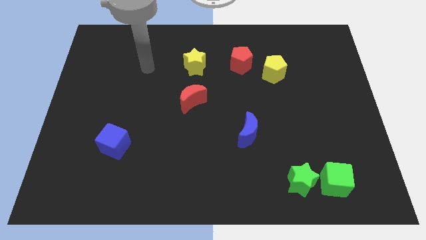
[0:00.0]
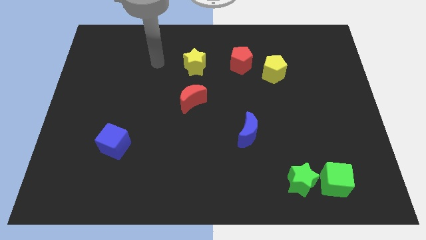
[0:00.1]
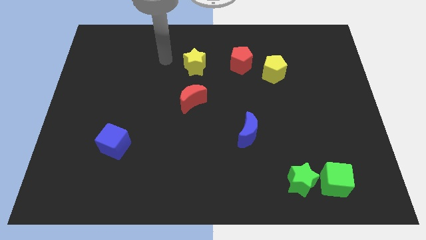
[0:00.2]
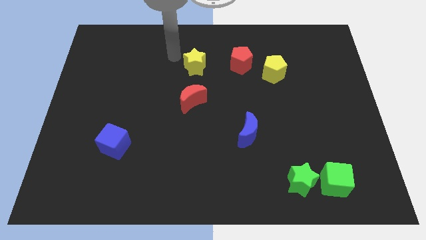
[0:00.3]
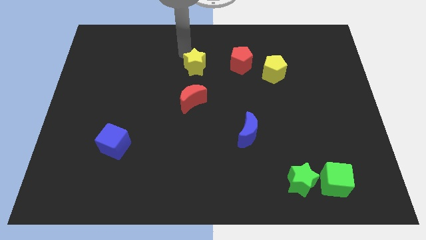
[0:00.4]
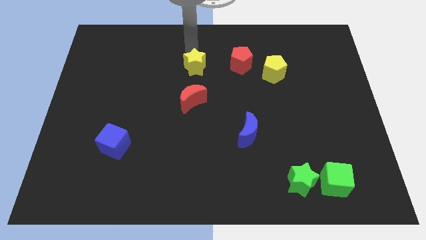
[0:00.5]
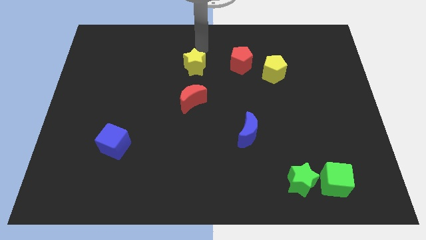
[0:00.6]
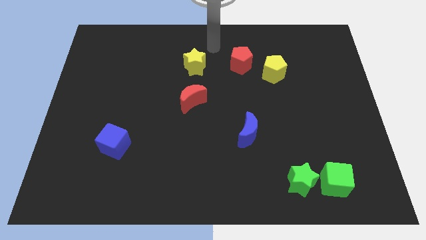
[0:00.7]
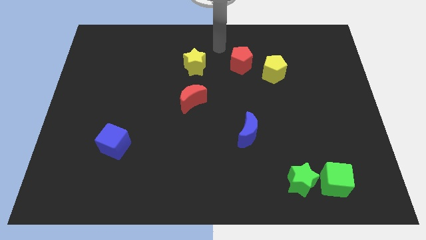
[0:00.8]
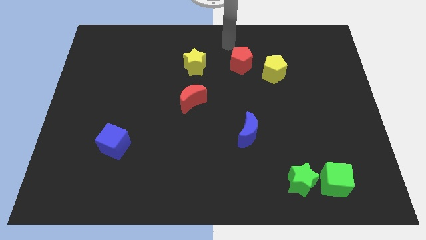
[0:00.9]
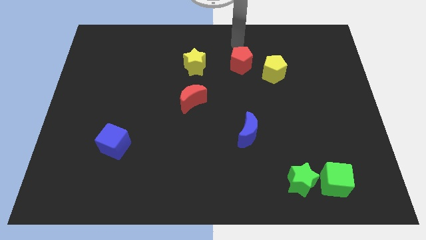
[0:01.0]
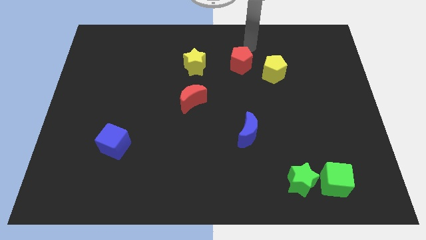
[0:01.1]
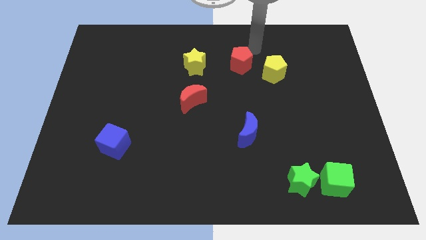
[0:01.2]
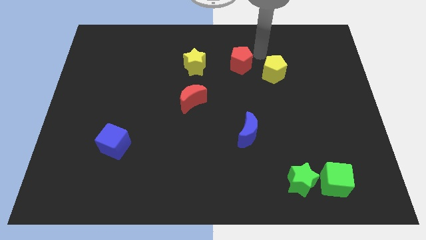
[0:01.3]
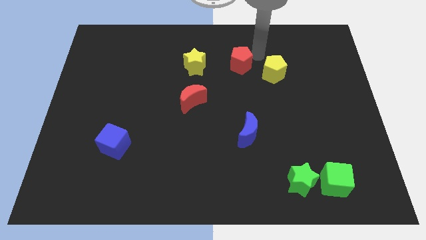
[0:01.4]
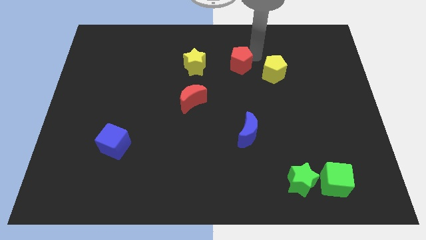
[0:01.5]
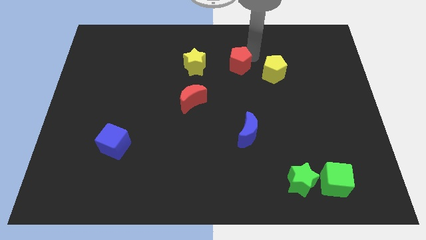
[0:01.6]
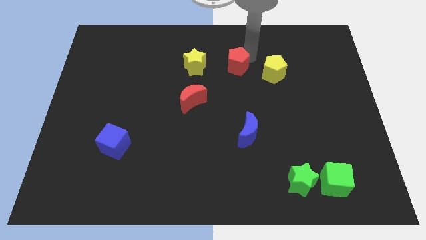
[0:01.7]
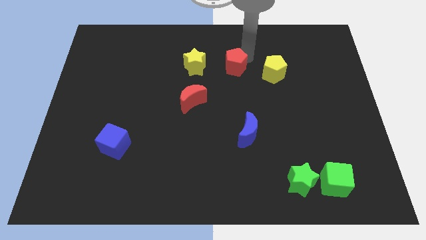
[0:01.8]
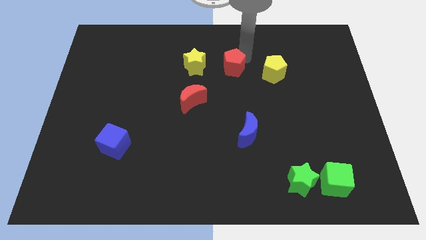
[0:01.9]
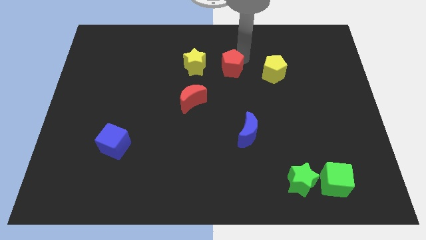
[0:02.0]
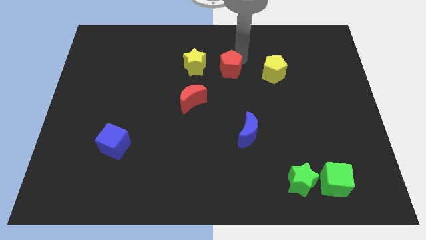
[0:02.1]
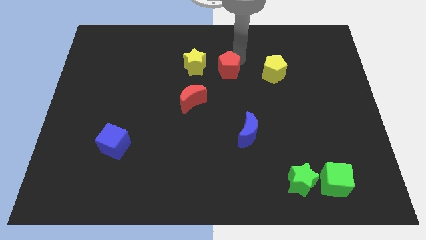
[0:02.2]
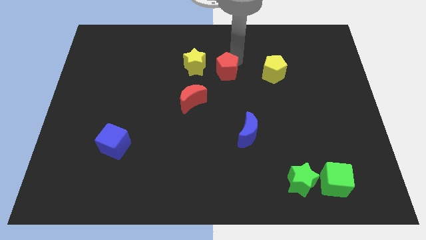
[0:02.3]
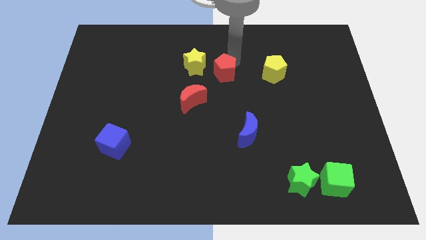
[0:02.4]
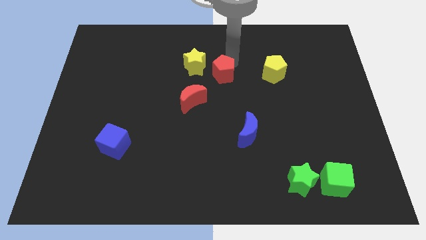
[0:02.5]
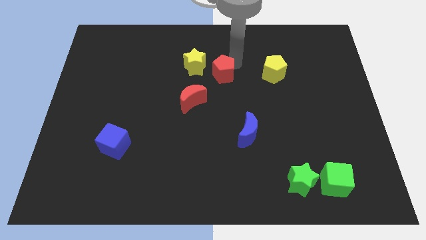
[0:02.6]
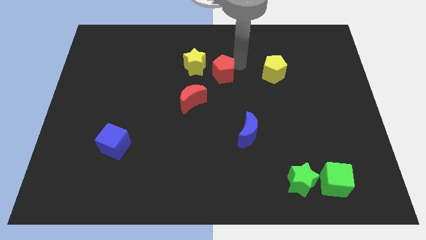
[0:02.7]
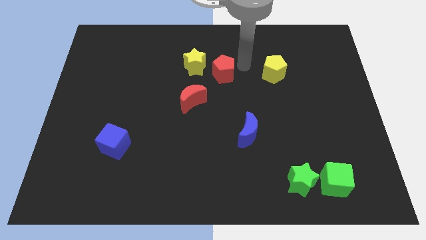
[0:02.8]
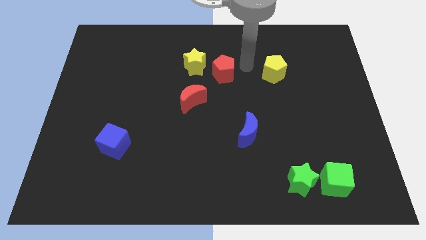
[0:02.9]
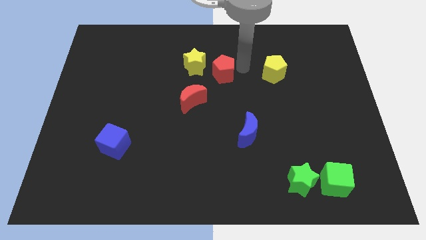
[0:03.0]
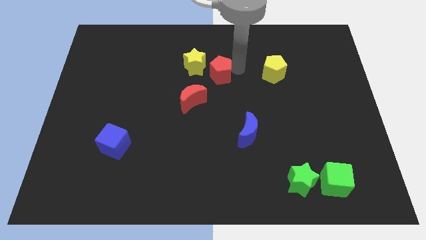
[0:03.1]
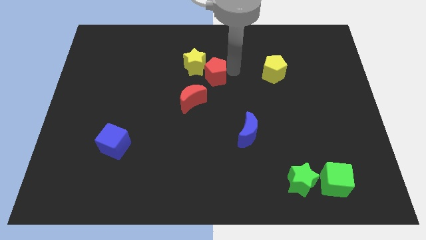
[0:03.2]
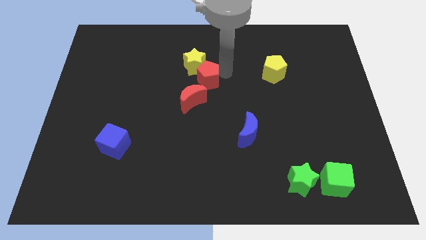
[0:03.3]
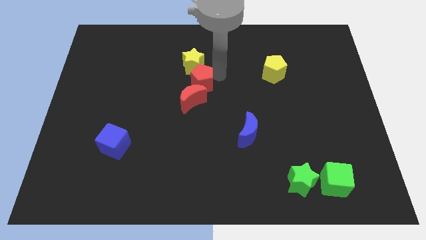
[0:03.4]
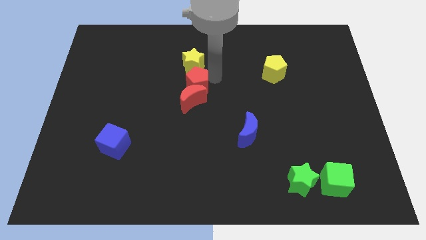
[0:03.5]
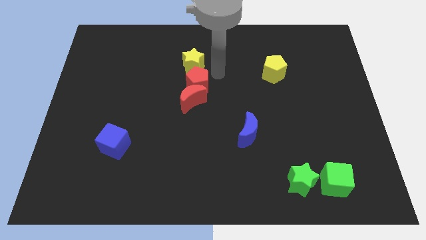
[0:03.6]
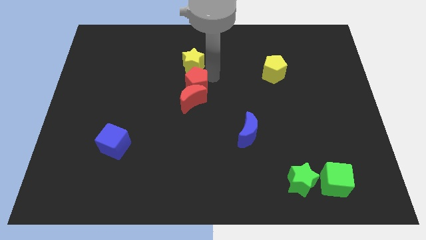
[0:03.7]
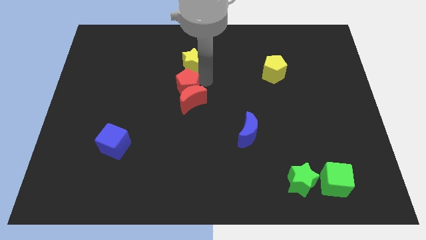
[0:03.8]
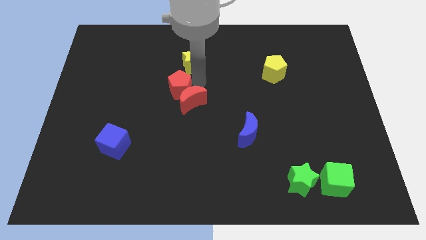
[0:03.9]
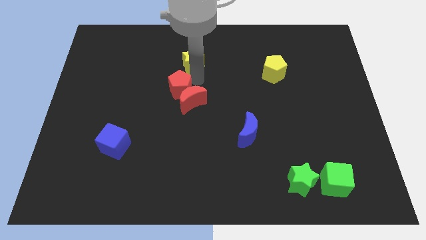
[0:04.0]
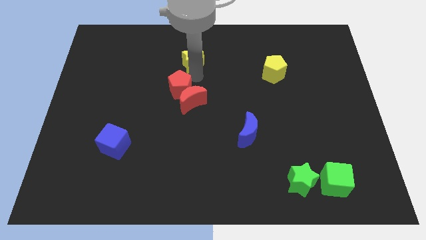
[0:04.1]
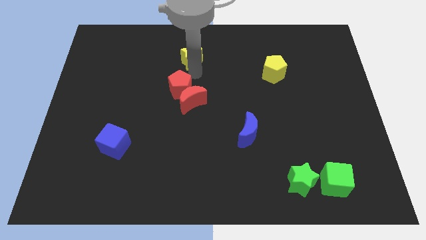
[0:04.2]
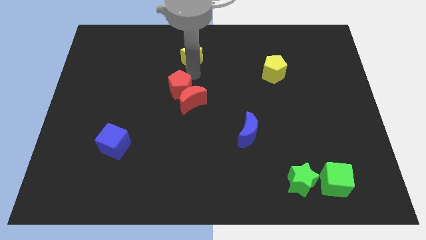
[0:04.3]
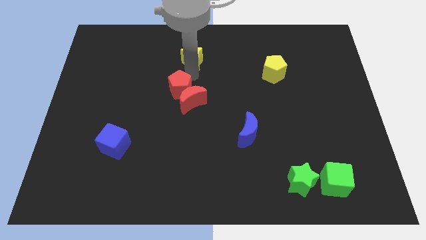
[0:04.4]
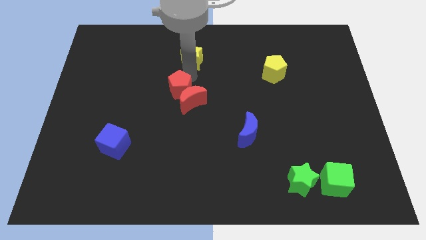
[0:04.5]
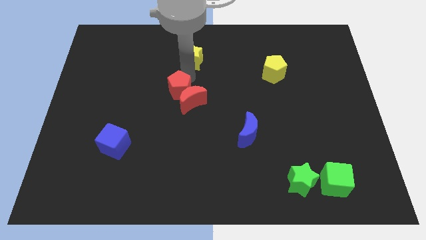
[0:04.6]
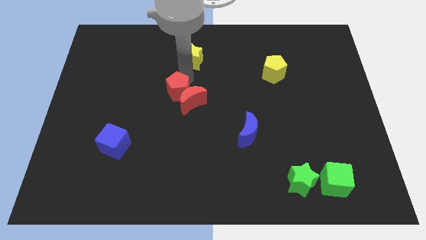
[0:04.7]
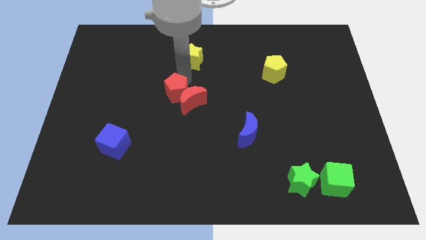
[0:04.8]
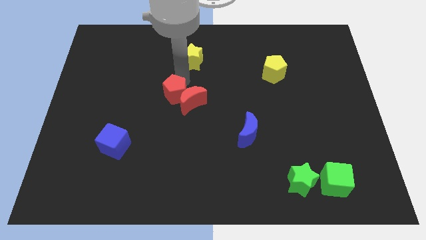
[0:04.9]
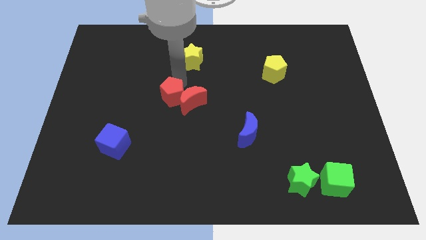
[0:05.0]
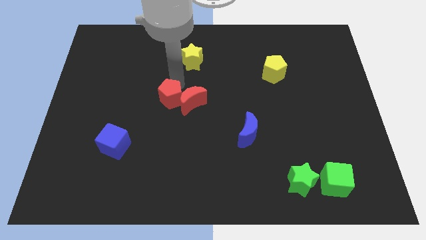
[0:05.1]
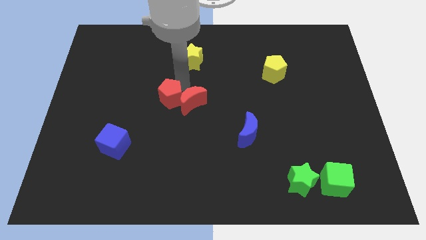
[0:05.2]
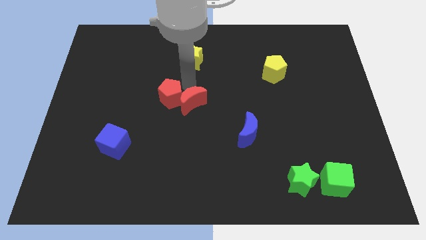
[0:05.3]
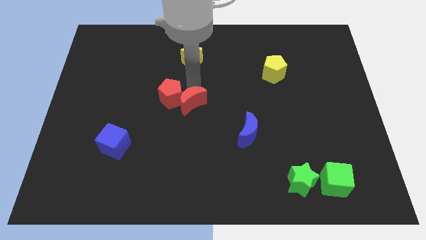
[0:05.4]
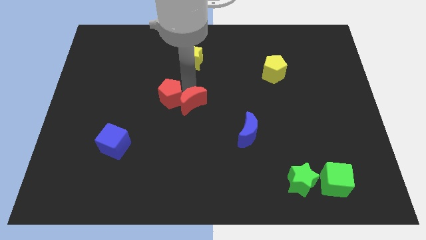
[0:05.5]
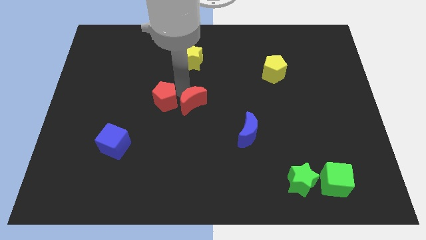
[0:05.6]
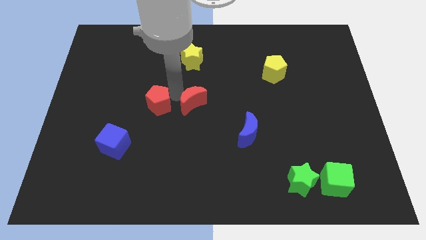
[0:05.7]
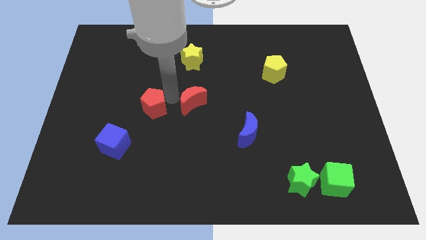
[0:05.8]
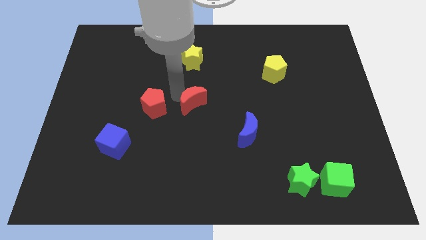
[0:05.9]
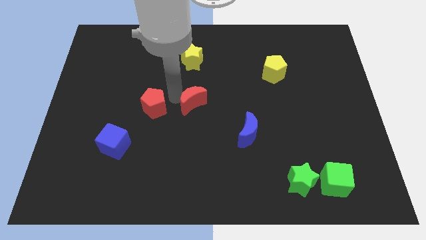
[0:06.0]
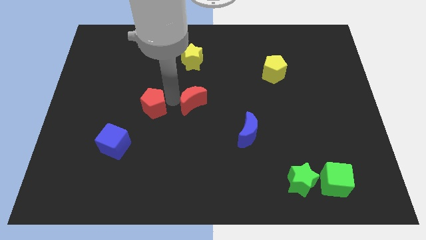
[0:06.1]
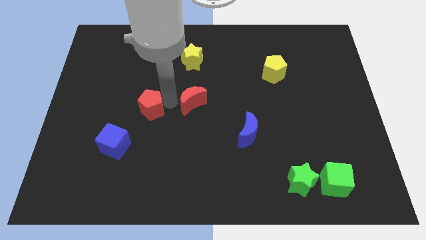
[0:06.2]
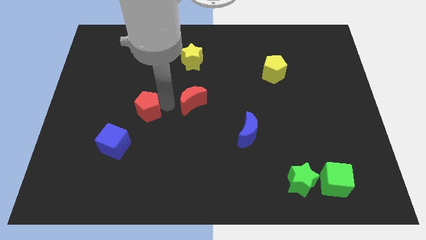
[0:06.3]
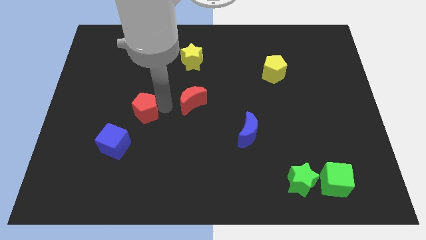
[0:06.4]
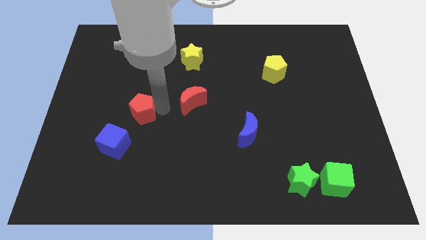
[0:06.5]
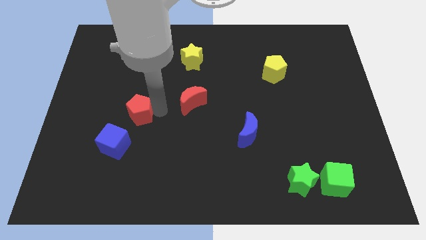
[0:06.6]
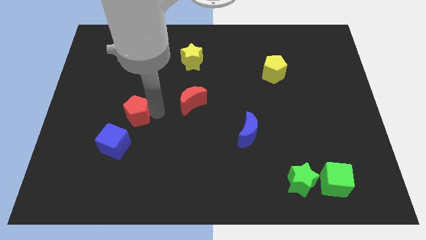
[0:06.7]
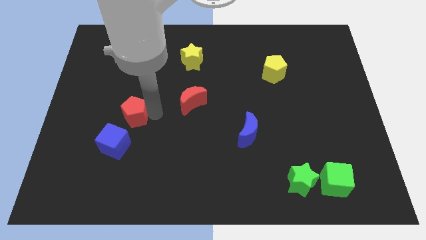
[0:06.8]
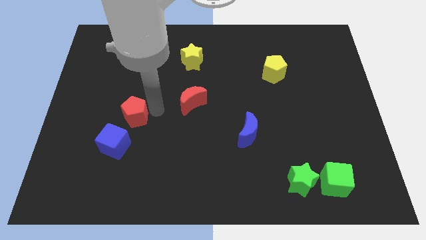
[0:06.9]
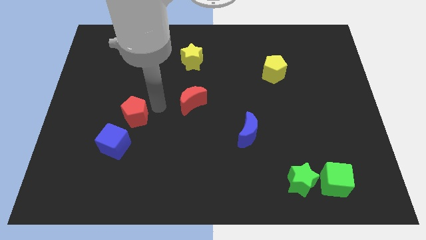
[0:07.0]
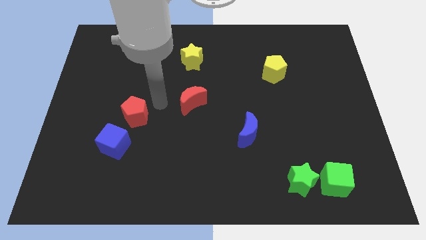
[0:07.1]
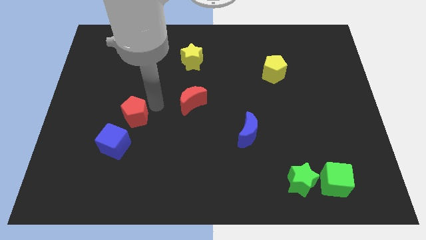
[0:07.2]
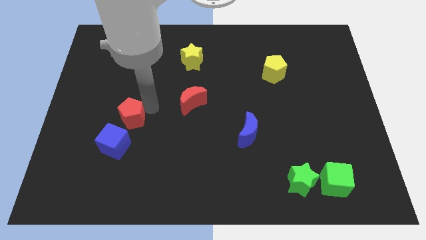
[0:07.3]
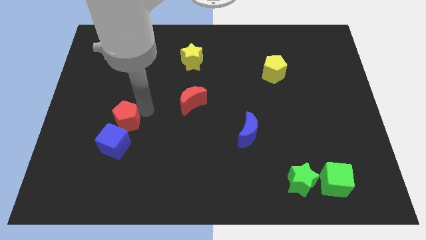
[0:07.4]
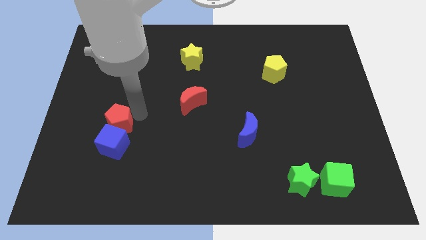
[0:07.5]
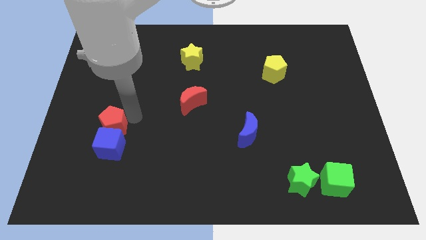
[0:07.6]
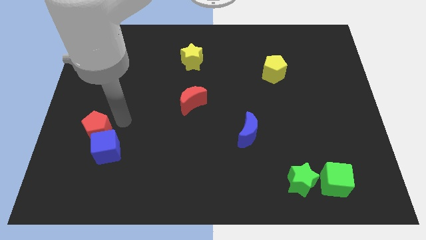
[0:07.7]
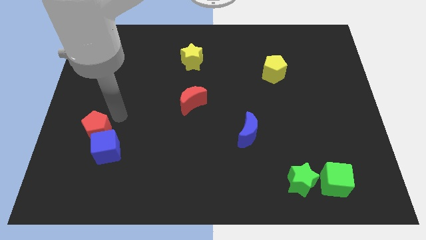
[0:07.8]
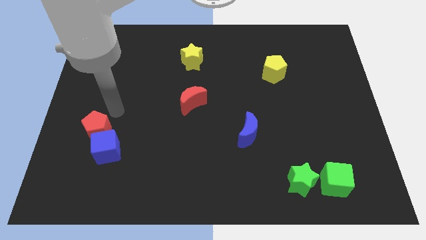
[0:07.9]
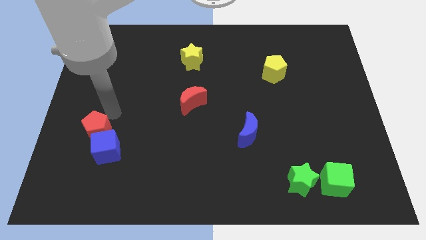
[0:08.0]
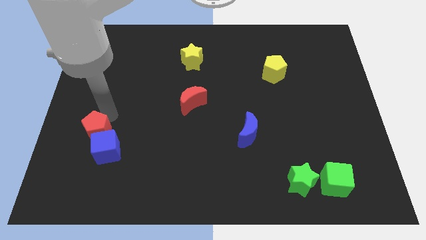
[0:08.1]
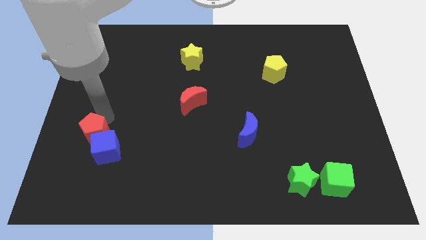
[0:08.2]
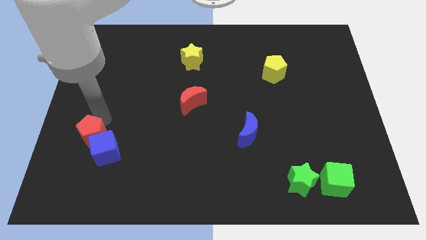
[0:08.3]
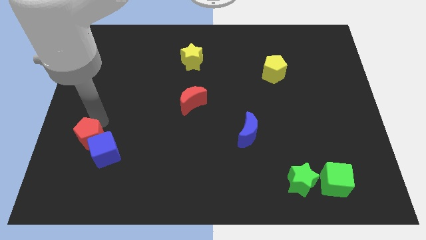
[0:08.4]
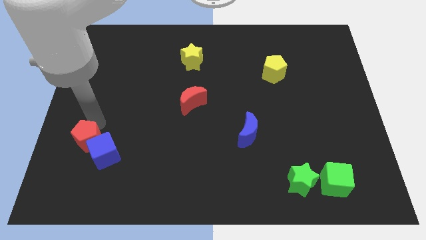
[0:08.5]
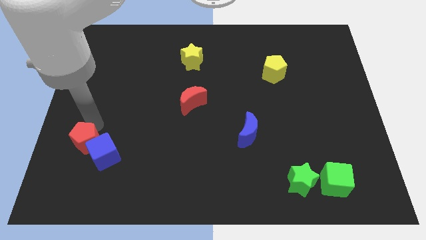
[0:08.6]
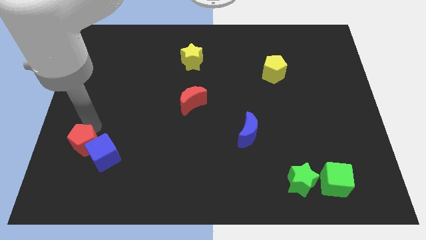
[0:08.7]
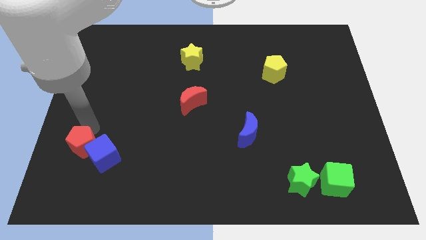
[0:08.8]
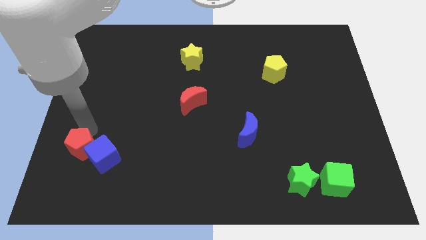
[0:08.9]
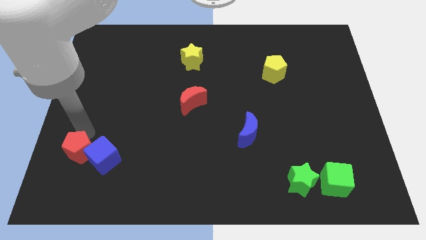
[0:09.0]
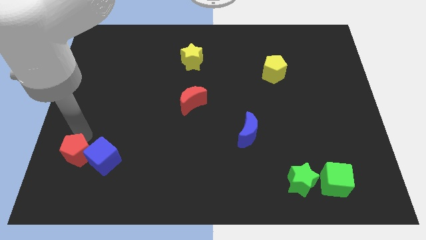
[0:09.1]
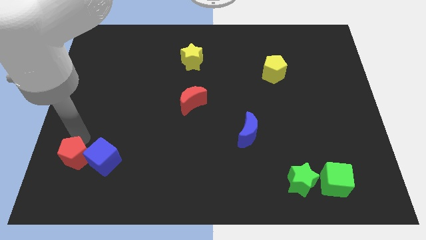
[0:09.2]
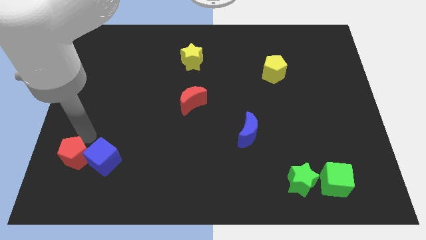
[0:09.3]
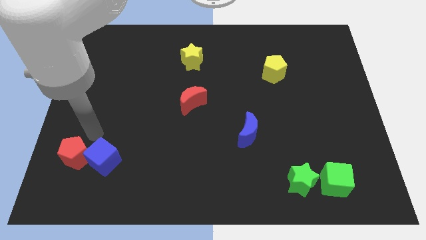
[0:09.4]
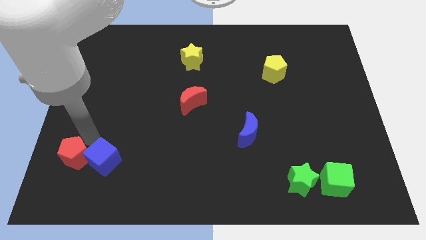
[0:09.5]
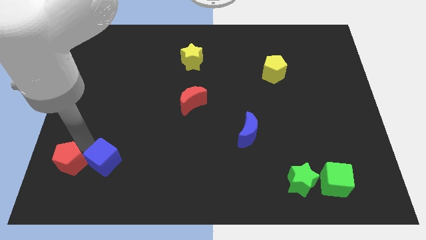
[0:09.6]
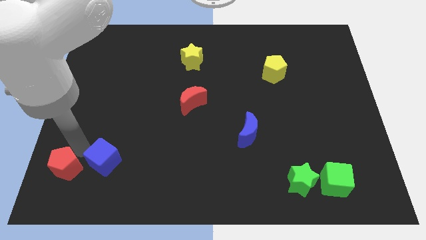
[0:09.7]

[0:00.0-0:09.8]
slide the red pentagon to the lower left corner
